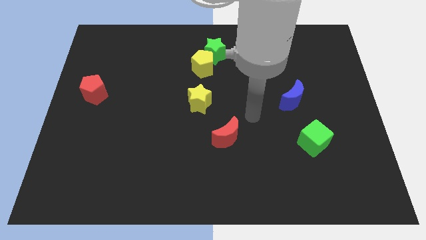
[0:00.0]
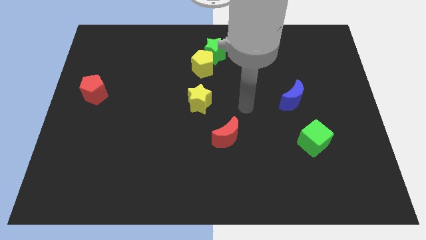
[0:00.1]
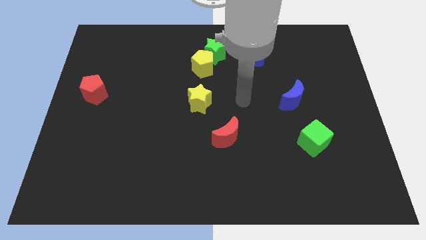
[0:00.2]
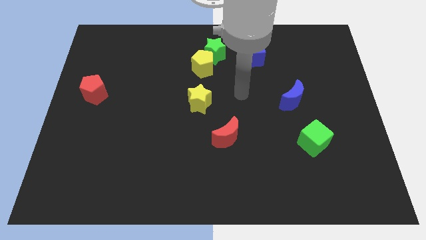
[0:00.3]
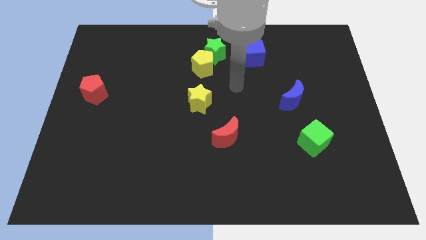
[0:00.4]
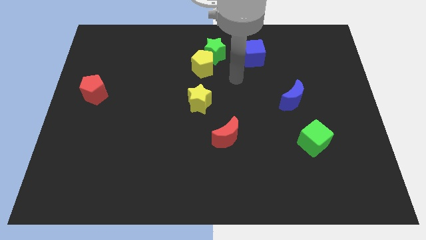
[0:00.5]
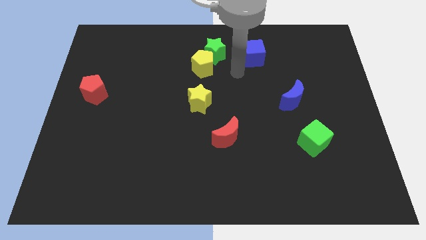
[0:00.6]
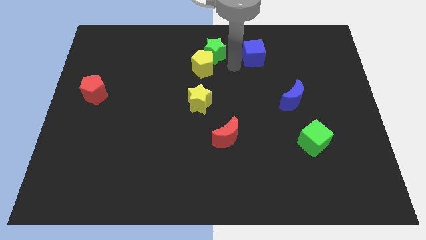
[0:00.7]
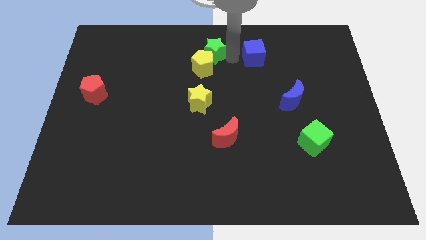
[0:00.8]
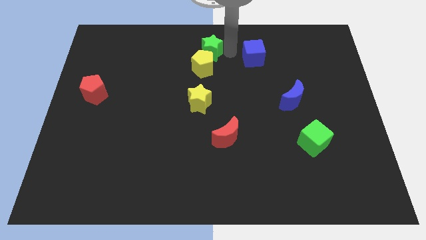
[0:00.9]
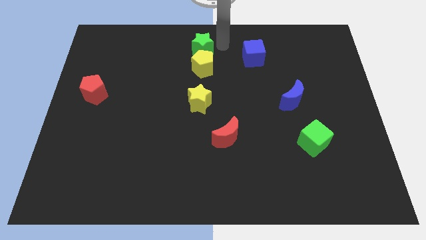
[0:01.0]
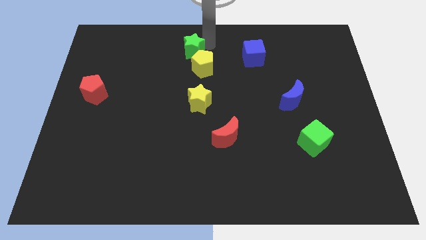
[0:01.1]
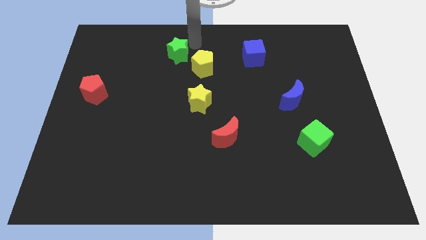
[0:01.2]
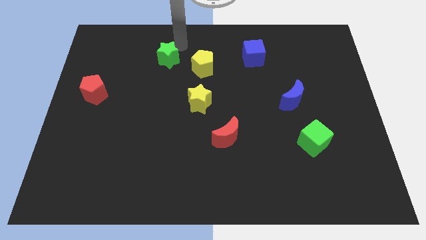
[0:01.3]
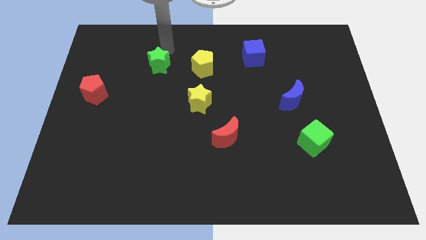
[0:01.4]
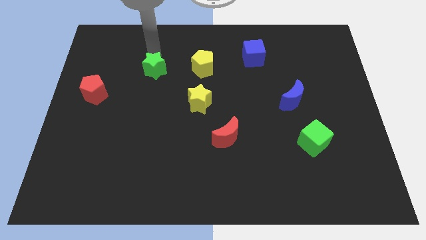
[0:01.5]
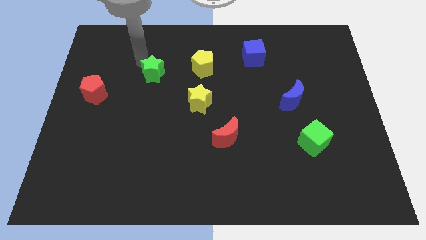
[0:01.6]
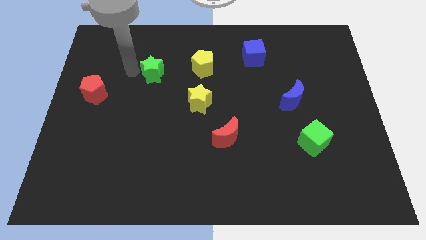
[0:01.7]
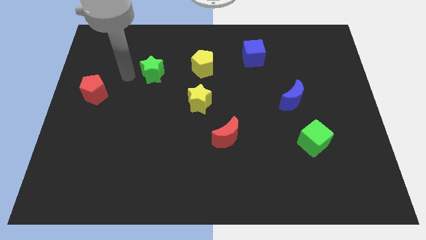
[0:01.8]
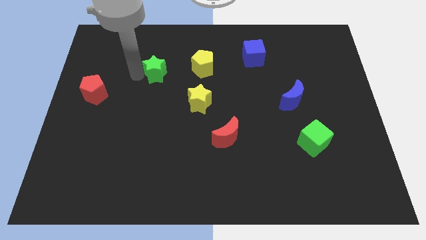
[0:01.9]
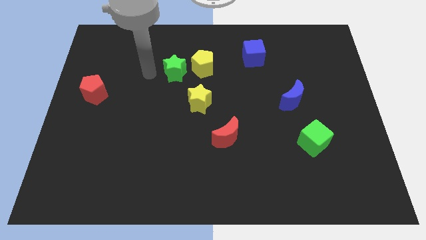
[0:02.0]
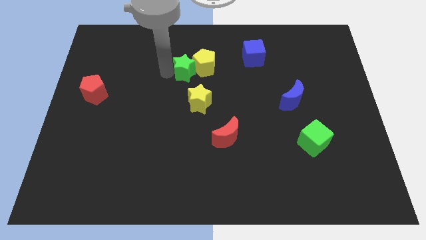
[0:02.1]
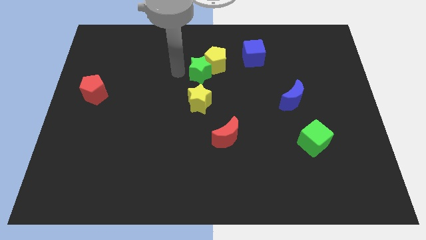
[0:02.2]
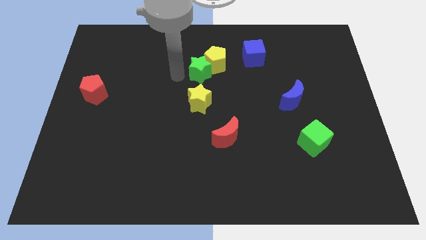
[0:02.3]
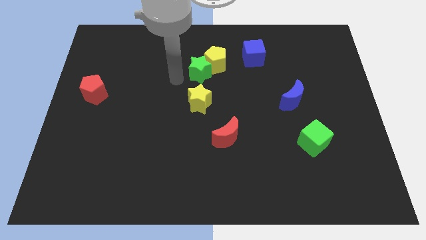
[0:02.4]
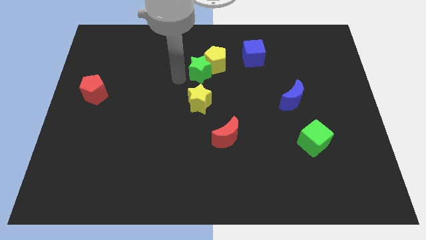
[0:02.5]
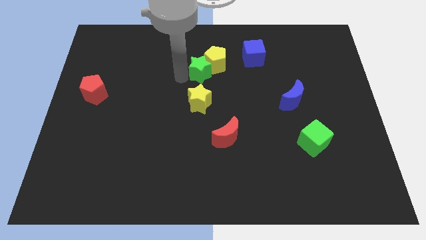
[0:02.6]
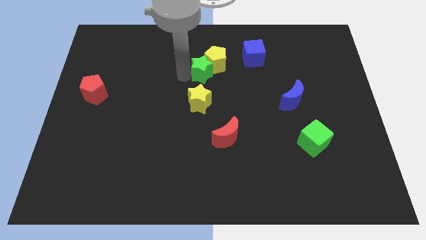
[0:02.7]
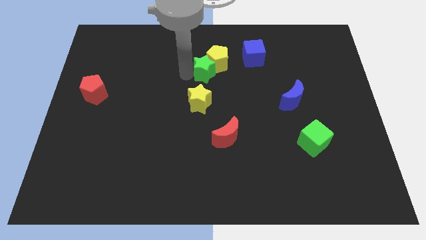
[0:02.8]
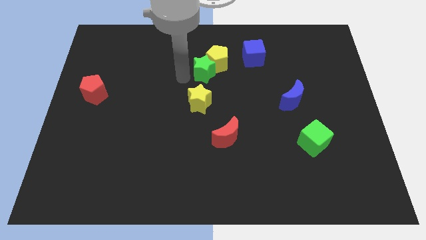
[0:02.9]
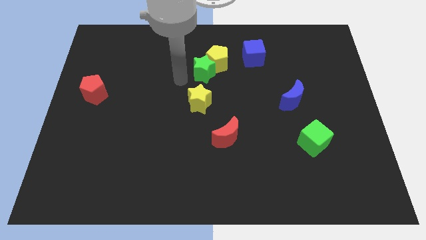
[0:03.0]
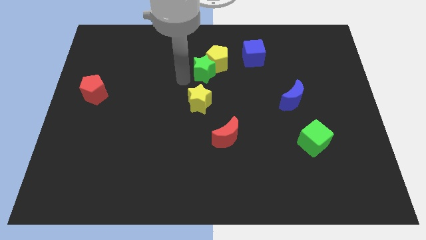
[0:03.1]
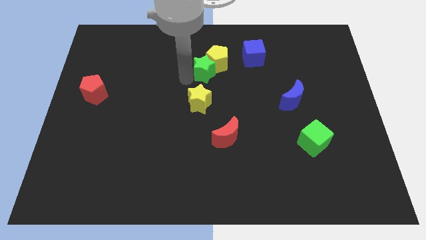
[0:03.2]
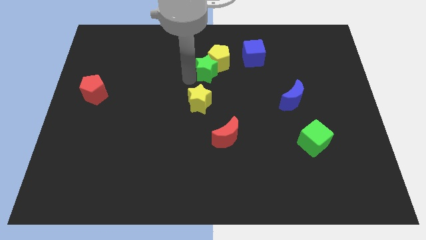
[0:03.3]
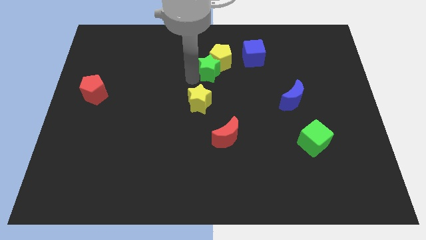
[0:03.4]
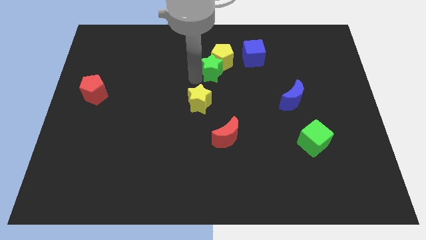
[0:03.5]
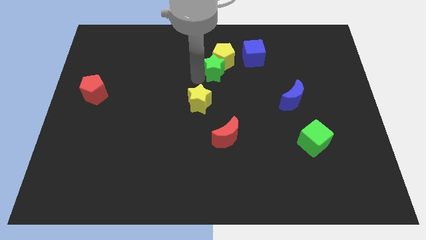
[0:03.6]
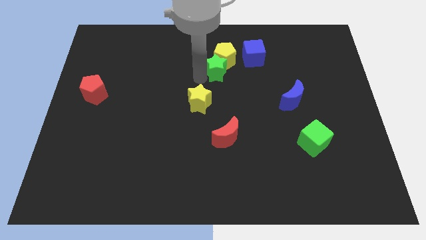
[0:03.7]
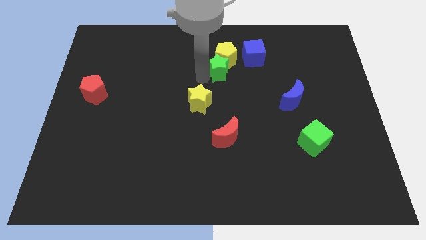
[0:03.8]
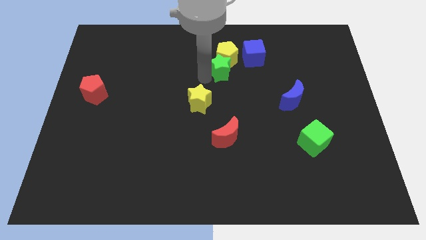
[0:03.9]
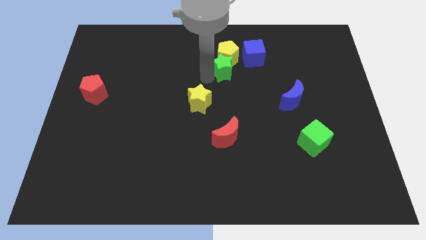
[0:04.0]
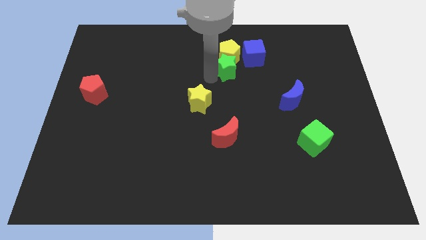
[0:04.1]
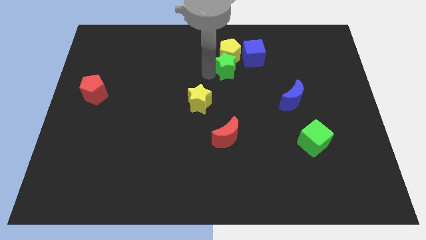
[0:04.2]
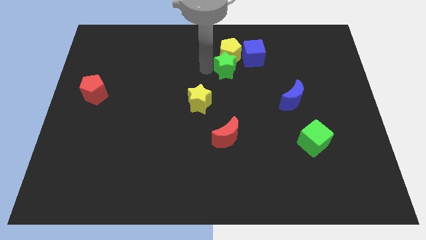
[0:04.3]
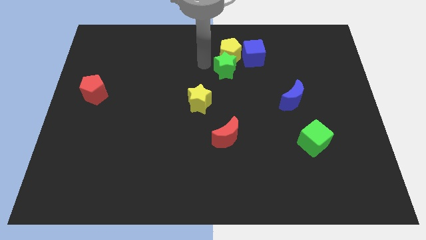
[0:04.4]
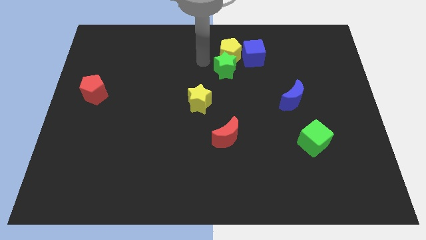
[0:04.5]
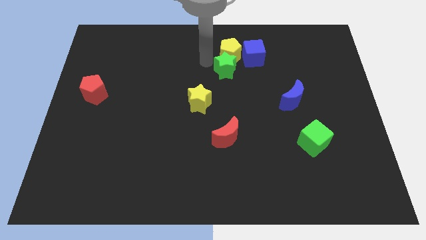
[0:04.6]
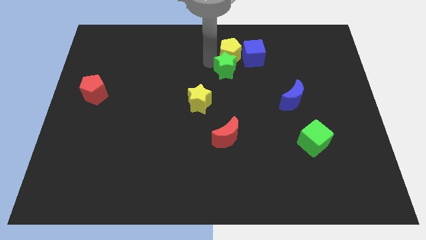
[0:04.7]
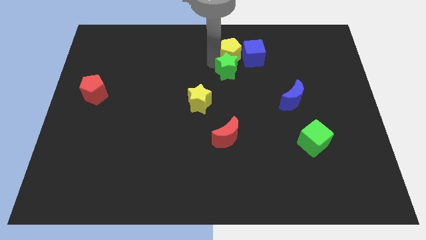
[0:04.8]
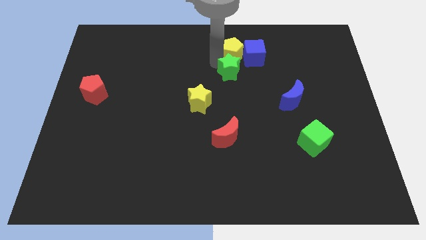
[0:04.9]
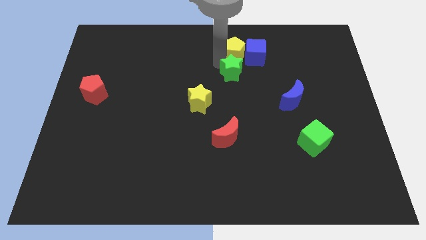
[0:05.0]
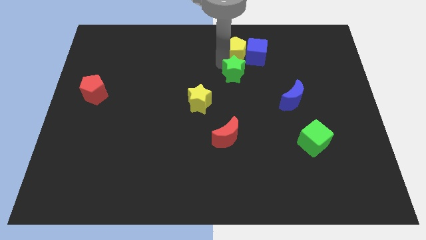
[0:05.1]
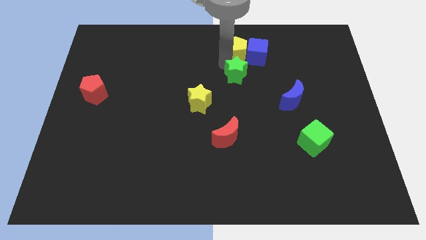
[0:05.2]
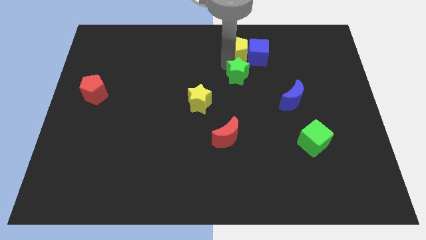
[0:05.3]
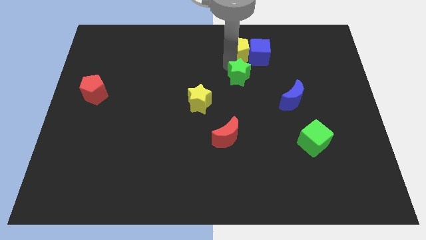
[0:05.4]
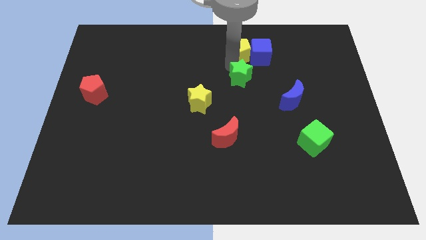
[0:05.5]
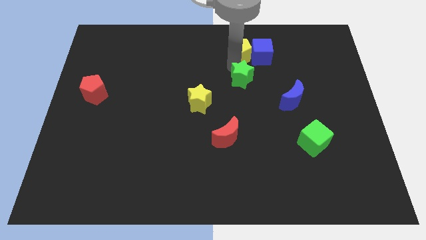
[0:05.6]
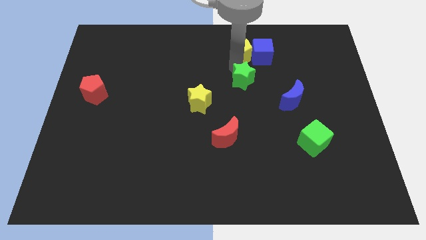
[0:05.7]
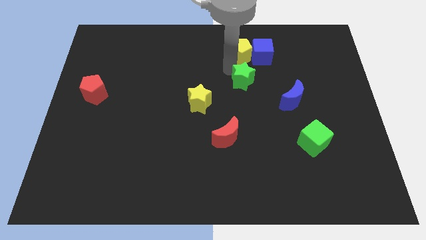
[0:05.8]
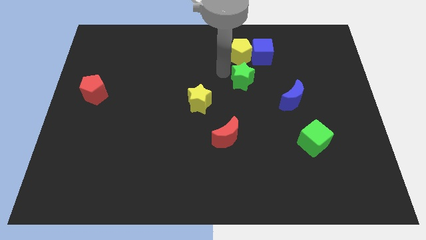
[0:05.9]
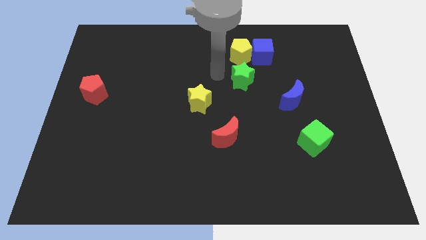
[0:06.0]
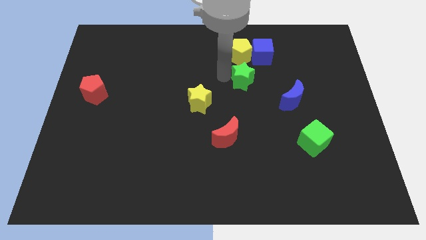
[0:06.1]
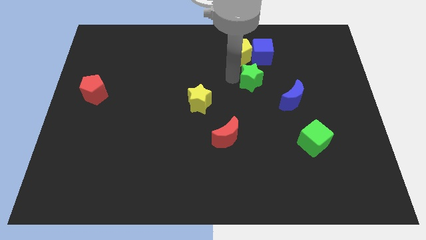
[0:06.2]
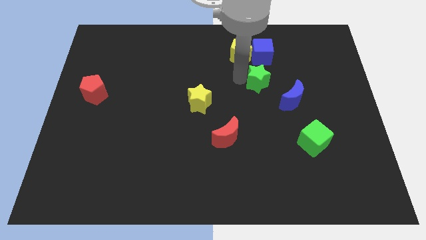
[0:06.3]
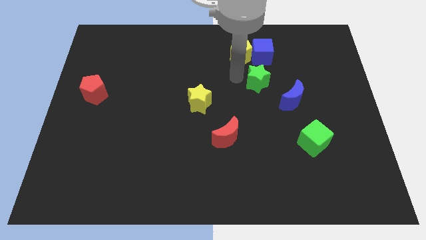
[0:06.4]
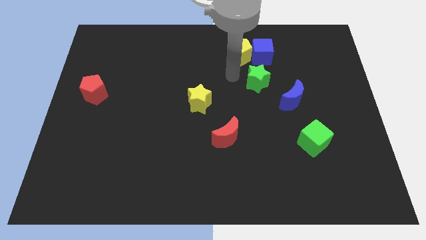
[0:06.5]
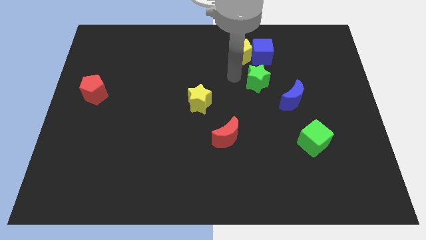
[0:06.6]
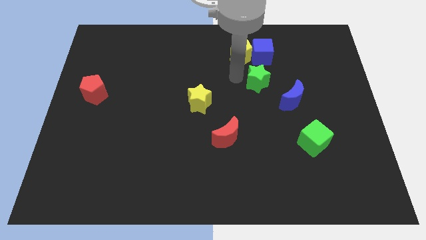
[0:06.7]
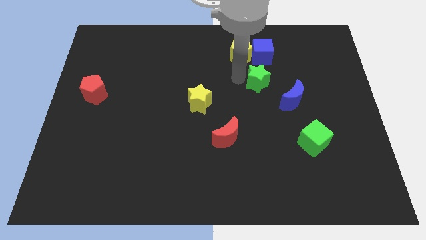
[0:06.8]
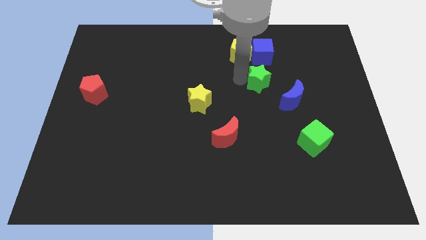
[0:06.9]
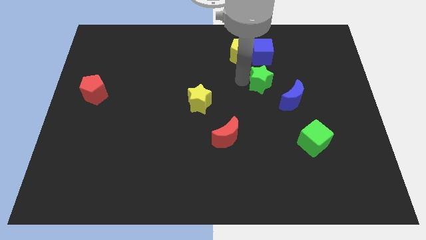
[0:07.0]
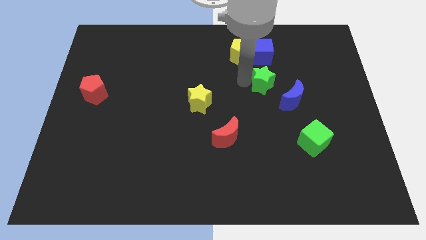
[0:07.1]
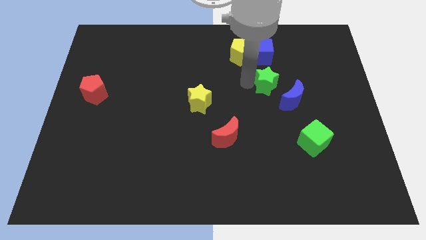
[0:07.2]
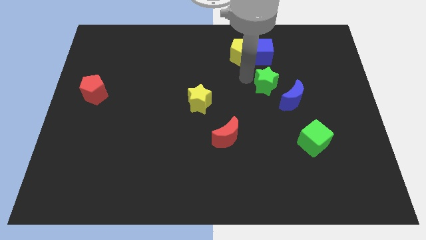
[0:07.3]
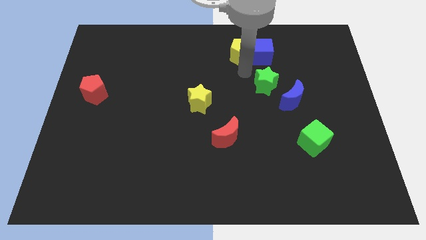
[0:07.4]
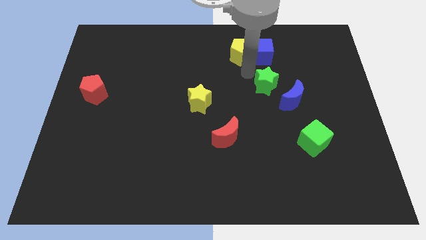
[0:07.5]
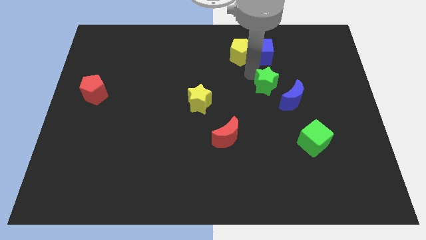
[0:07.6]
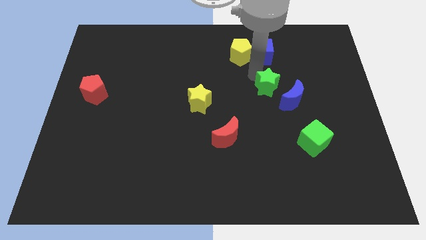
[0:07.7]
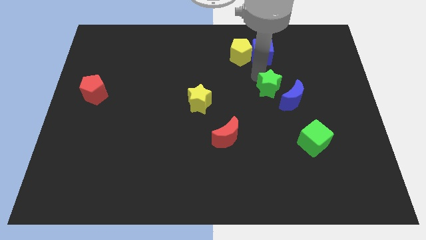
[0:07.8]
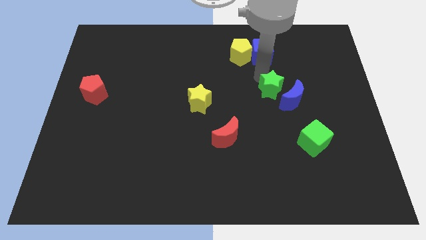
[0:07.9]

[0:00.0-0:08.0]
put the green star to the blue moon

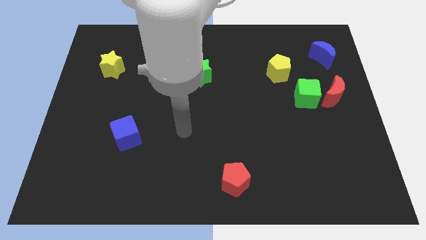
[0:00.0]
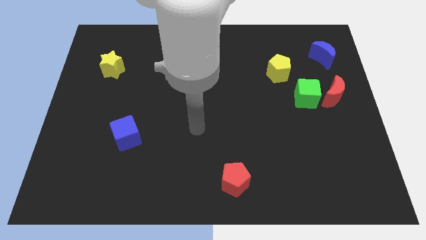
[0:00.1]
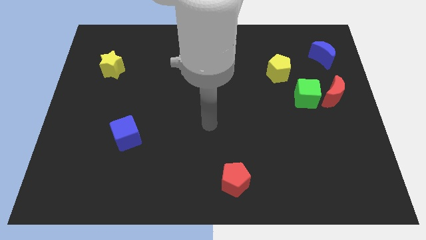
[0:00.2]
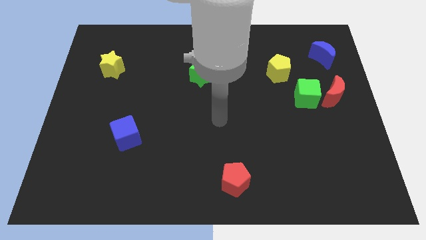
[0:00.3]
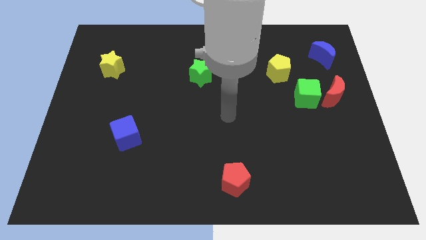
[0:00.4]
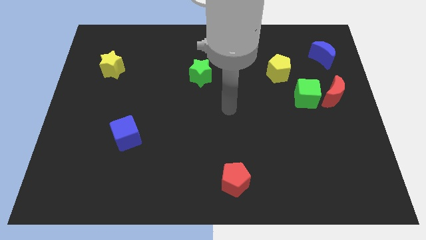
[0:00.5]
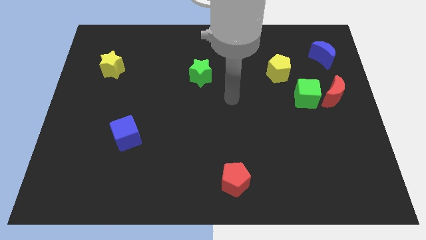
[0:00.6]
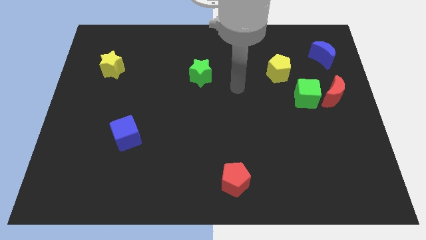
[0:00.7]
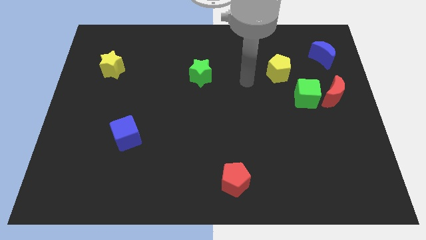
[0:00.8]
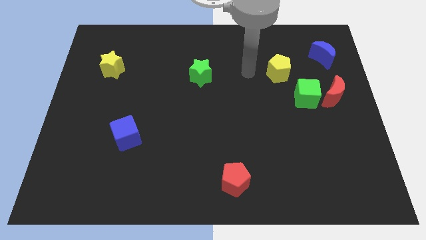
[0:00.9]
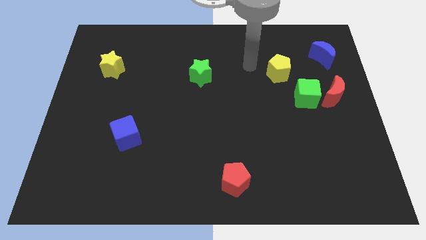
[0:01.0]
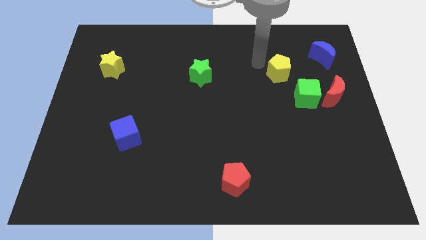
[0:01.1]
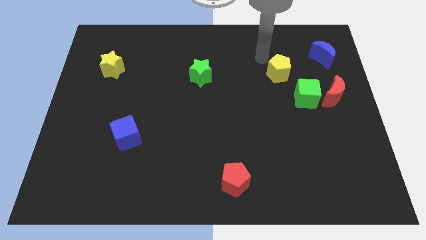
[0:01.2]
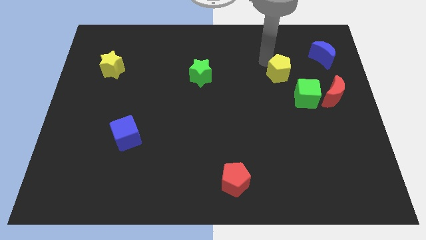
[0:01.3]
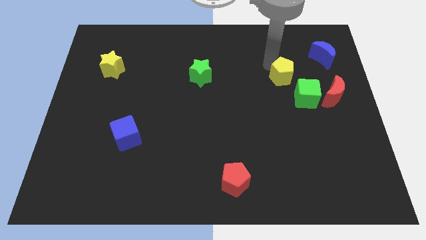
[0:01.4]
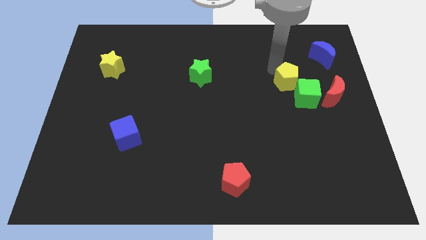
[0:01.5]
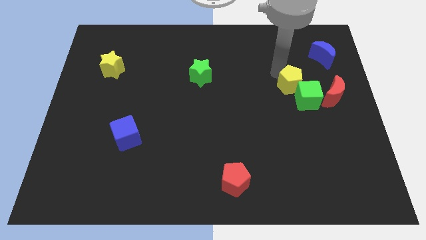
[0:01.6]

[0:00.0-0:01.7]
slide the yellow pentagon to the green cube
